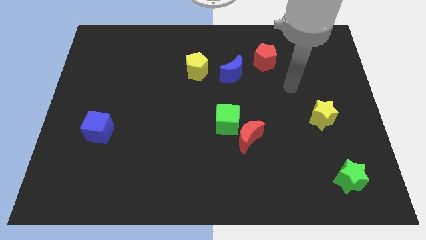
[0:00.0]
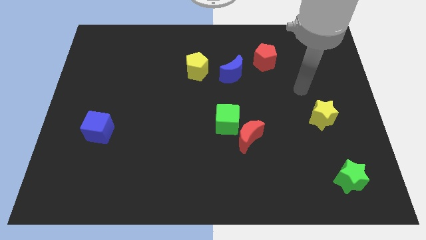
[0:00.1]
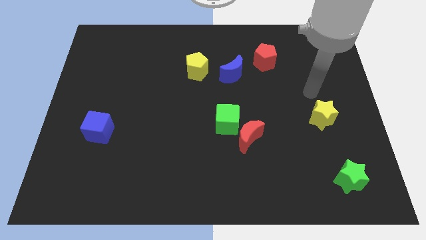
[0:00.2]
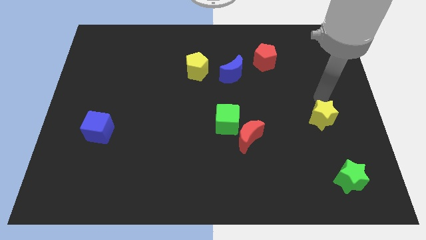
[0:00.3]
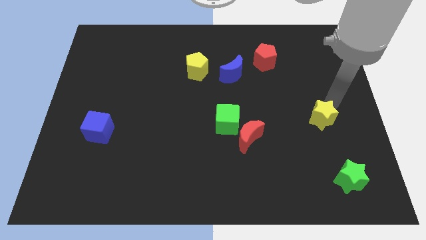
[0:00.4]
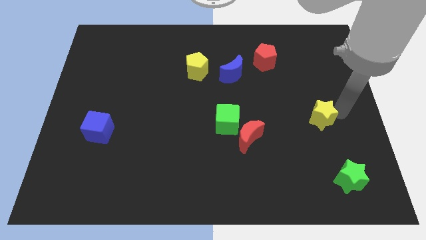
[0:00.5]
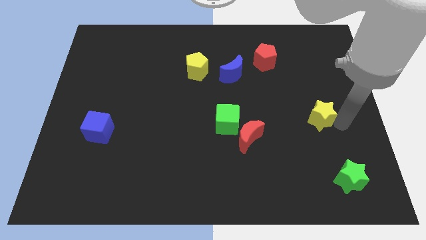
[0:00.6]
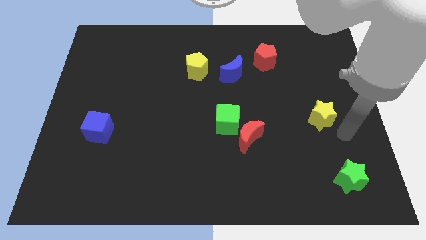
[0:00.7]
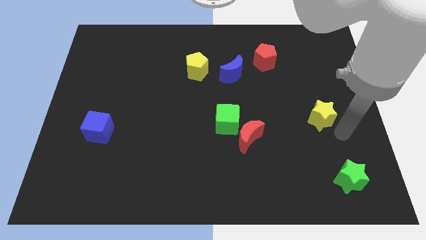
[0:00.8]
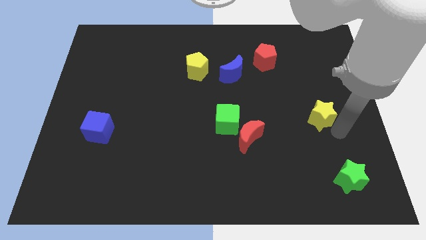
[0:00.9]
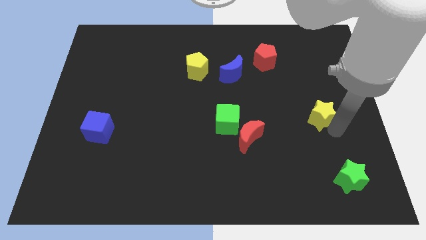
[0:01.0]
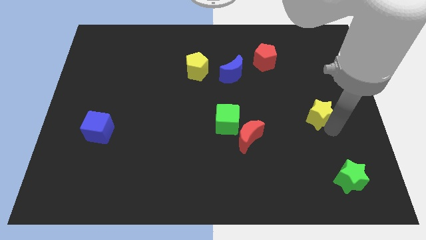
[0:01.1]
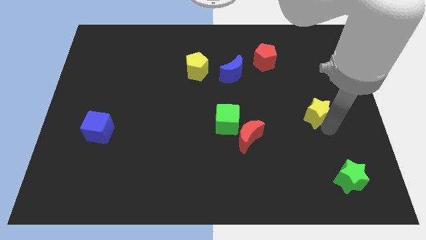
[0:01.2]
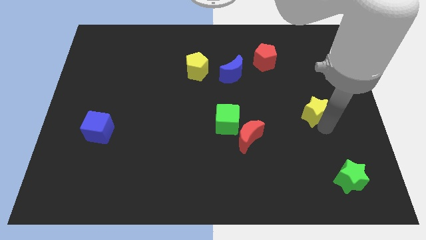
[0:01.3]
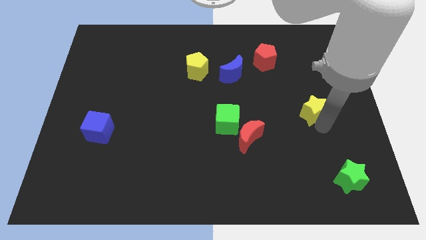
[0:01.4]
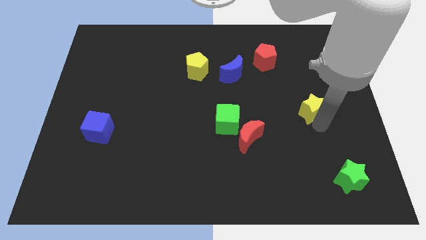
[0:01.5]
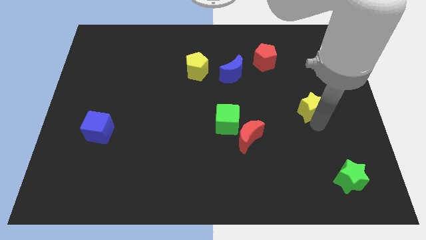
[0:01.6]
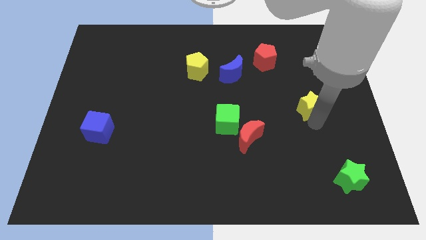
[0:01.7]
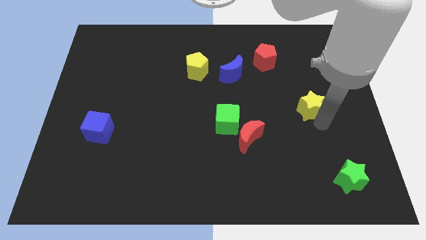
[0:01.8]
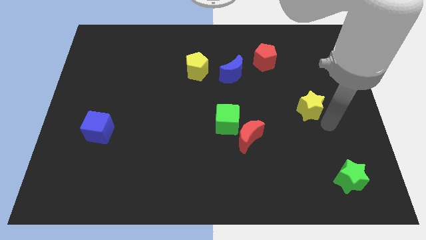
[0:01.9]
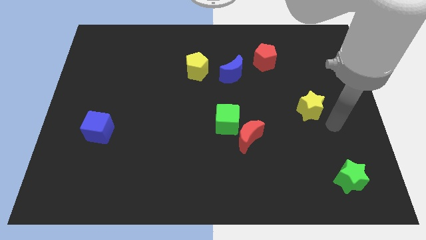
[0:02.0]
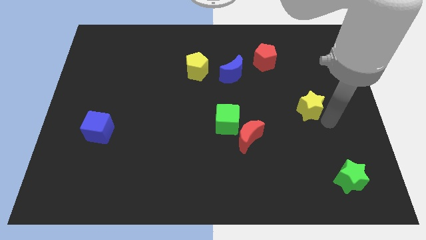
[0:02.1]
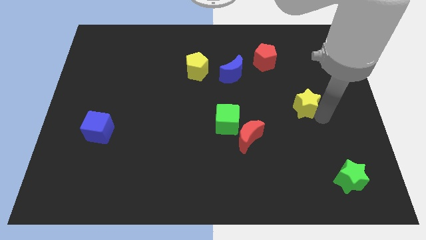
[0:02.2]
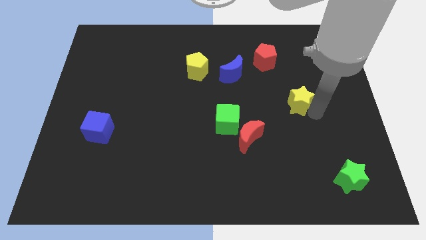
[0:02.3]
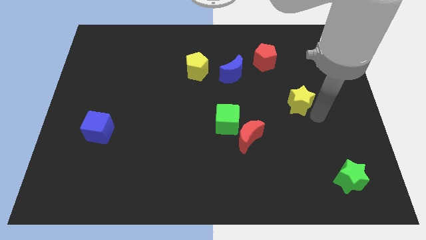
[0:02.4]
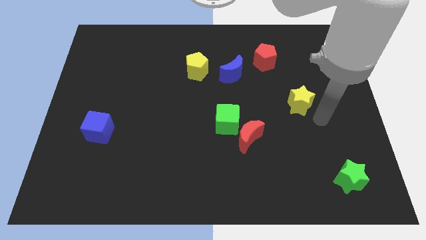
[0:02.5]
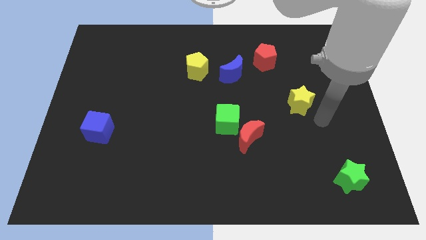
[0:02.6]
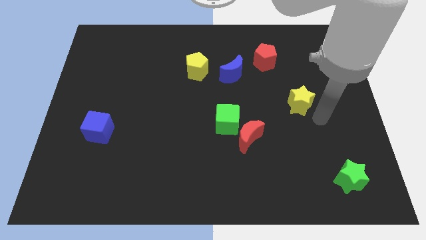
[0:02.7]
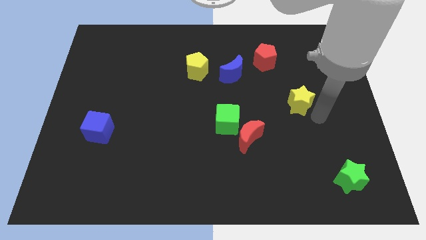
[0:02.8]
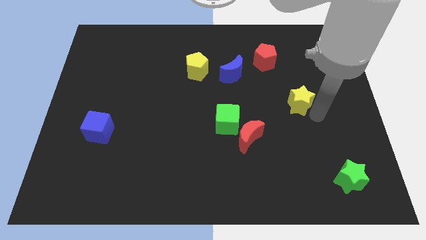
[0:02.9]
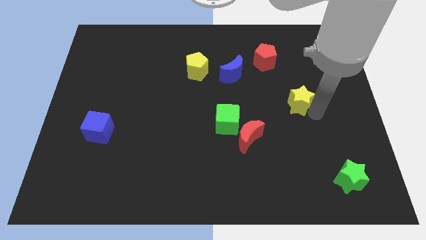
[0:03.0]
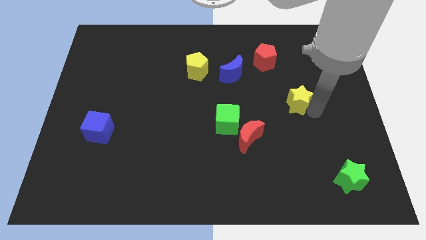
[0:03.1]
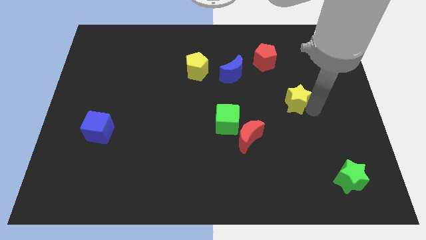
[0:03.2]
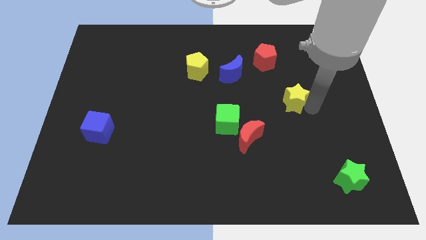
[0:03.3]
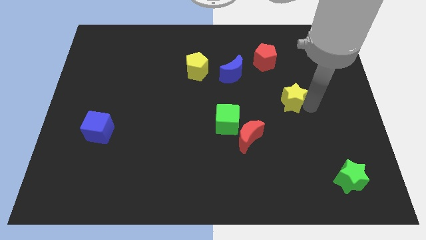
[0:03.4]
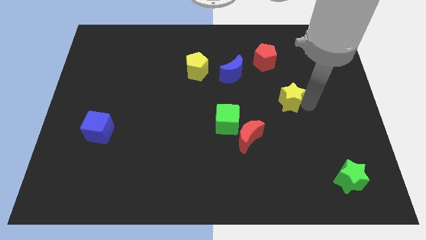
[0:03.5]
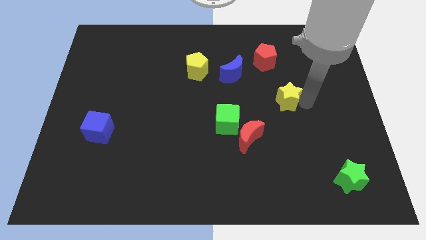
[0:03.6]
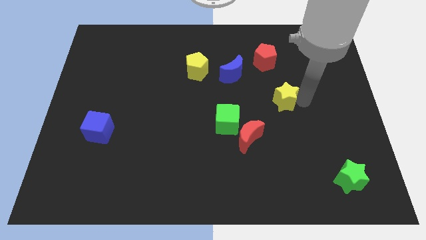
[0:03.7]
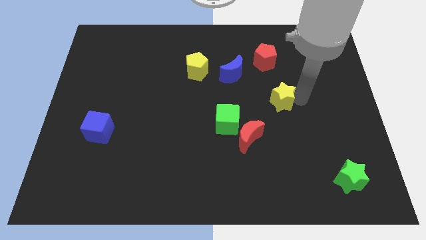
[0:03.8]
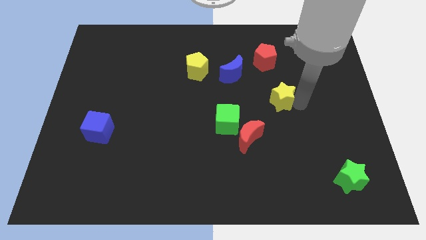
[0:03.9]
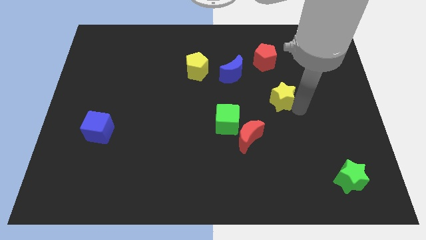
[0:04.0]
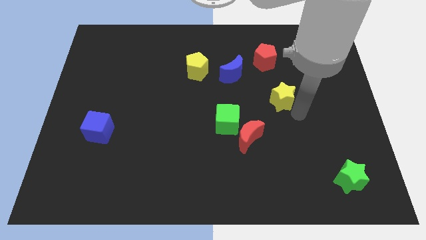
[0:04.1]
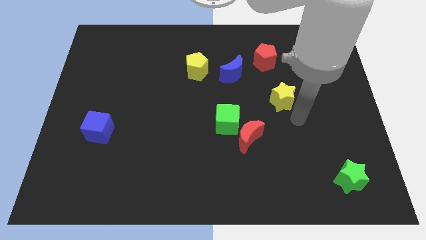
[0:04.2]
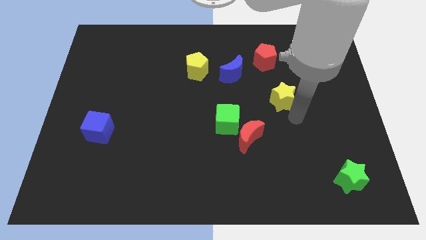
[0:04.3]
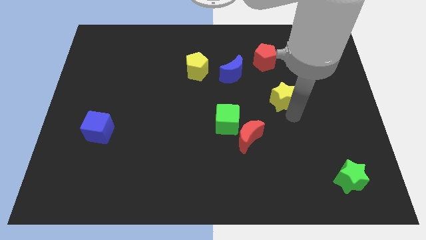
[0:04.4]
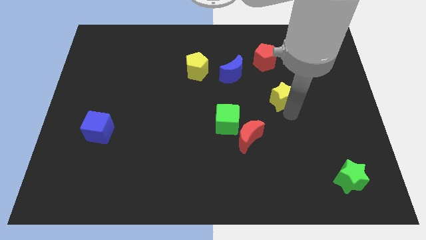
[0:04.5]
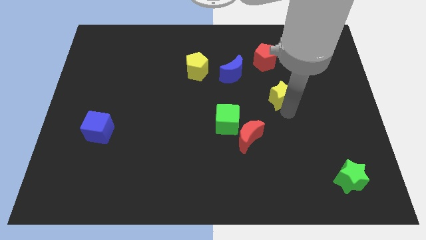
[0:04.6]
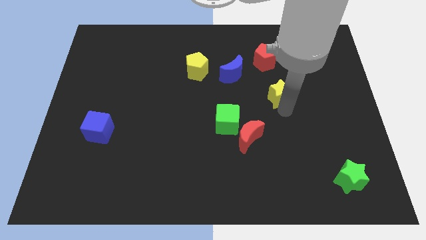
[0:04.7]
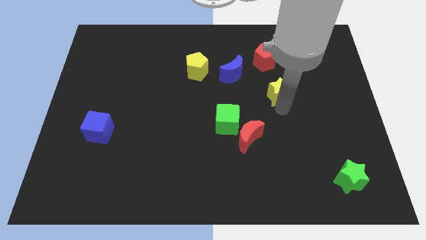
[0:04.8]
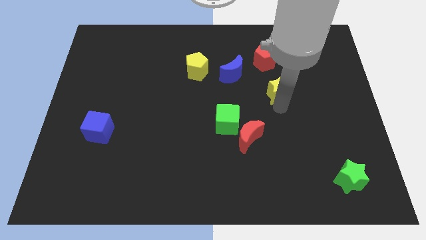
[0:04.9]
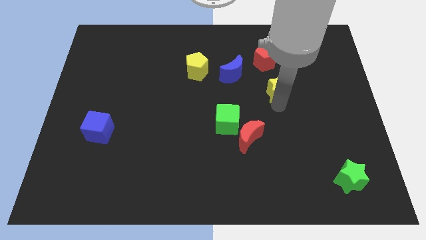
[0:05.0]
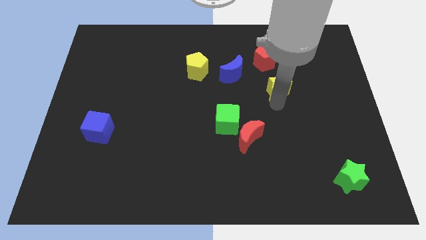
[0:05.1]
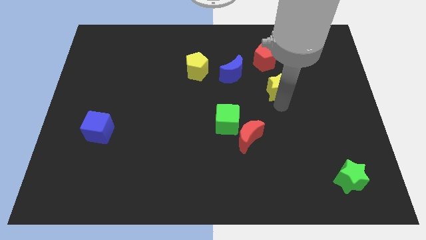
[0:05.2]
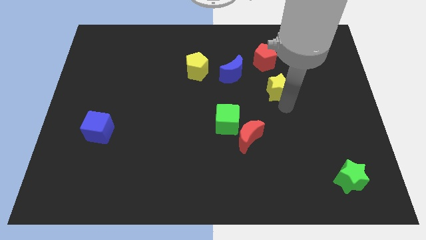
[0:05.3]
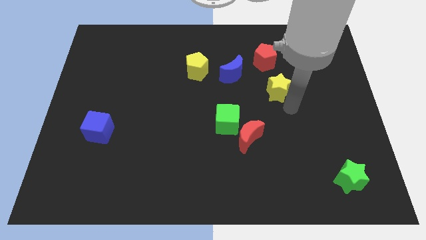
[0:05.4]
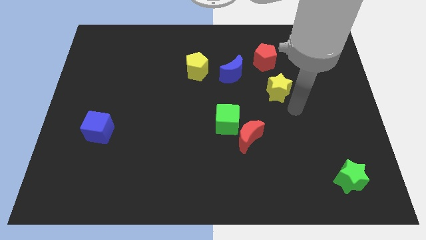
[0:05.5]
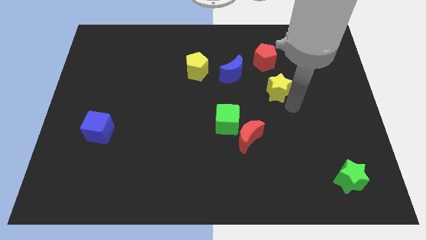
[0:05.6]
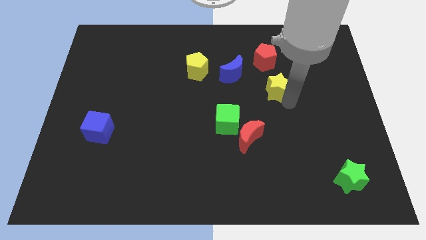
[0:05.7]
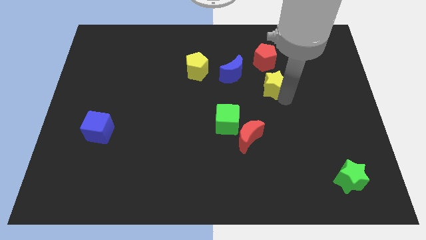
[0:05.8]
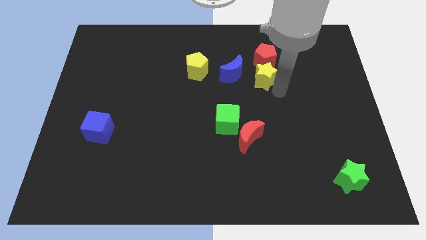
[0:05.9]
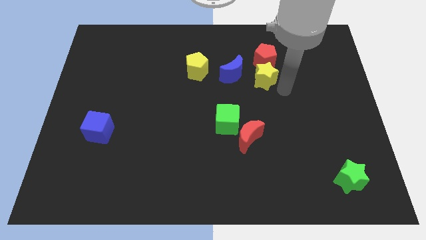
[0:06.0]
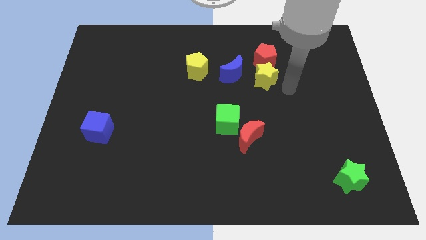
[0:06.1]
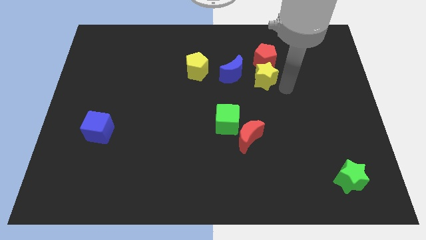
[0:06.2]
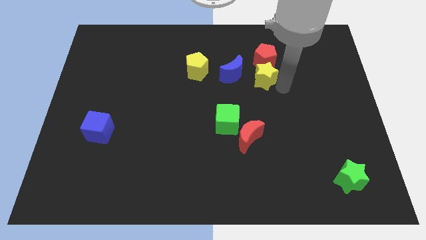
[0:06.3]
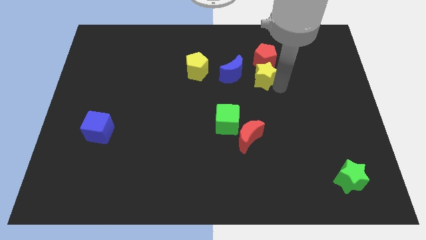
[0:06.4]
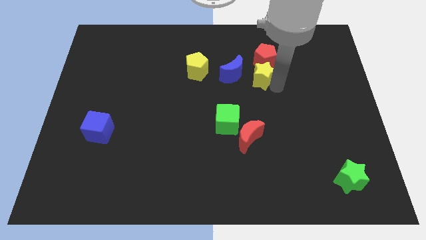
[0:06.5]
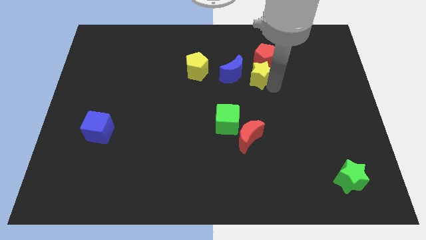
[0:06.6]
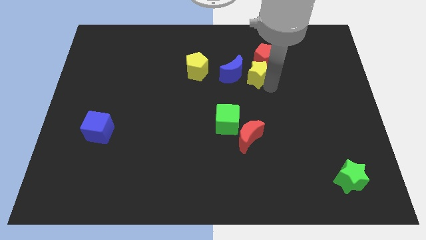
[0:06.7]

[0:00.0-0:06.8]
slide the yellow star to the right of the yellow pentagon

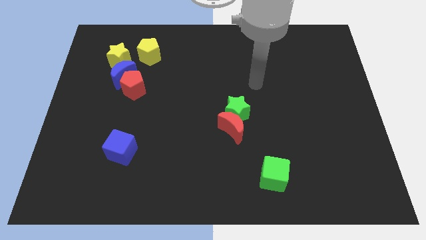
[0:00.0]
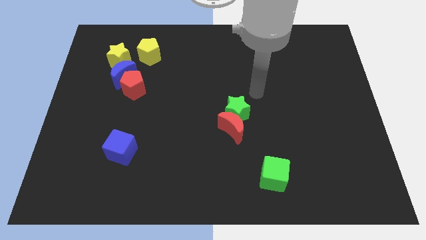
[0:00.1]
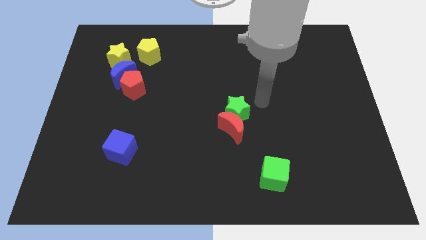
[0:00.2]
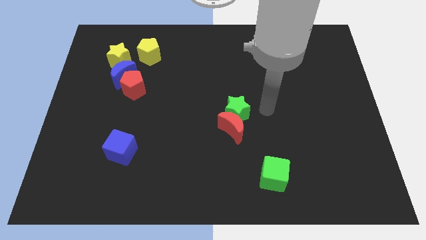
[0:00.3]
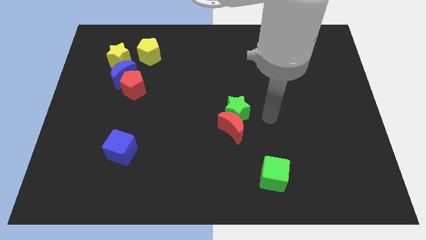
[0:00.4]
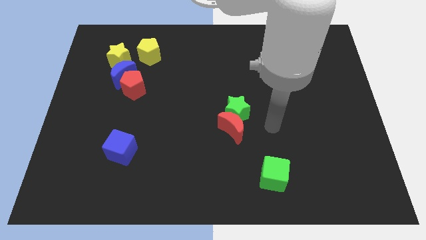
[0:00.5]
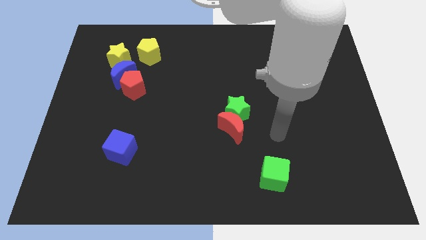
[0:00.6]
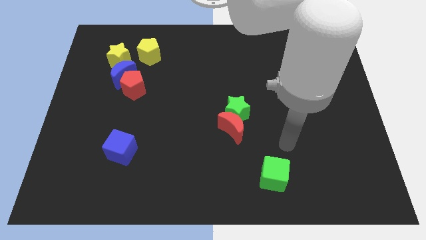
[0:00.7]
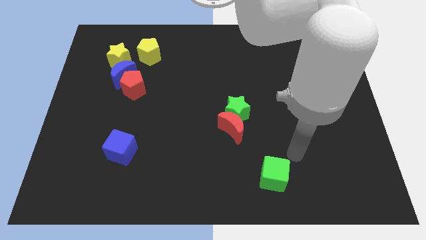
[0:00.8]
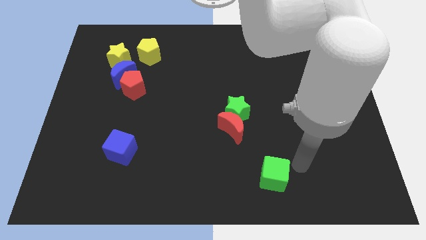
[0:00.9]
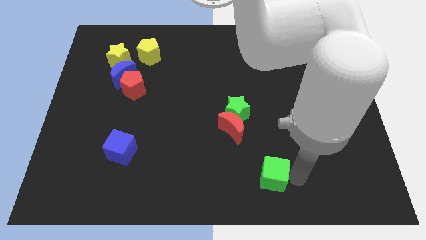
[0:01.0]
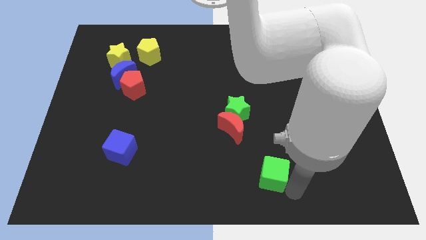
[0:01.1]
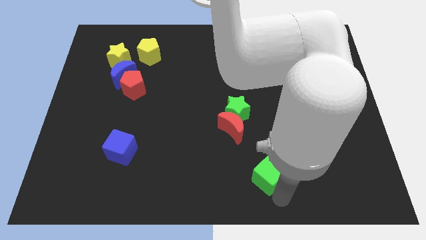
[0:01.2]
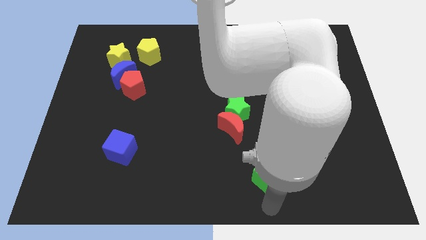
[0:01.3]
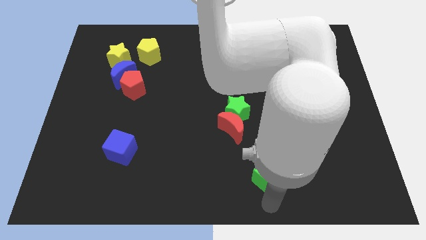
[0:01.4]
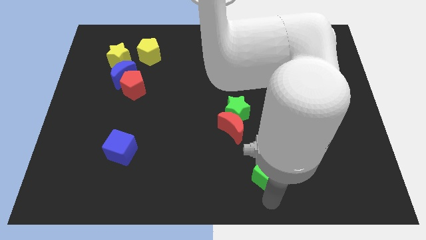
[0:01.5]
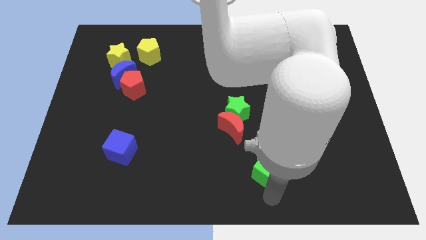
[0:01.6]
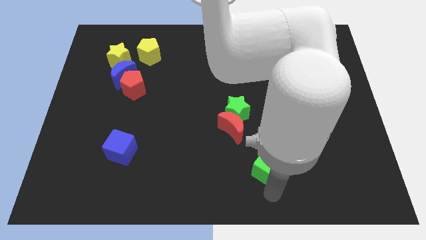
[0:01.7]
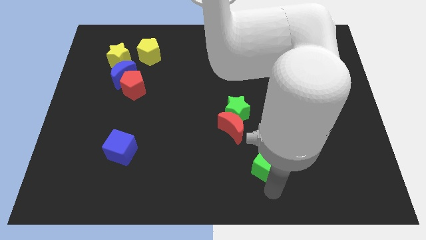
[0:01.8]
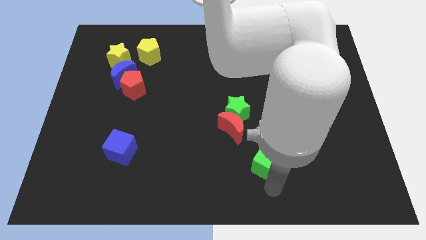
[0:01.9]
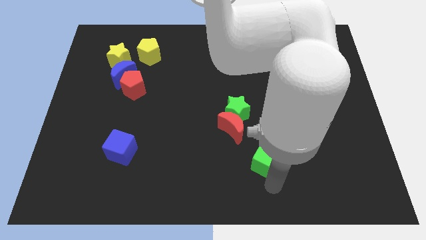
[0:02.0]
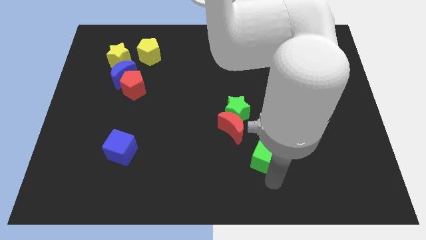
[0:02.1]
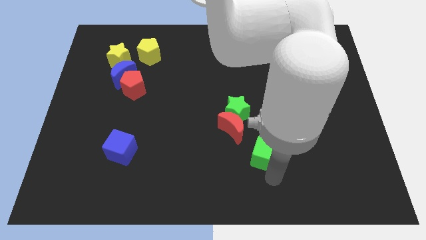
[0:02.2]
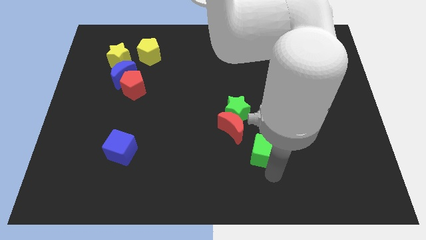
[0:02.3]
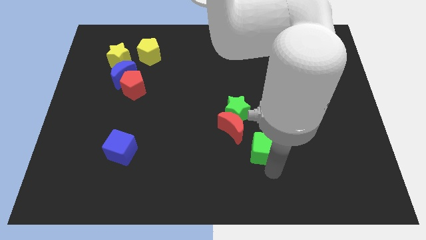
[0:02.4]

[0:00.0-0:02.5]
put the green cube diagonally down and to the right of the green star
